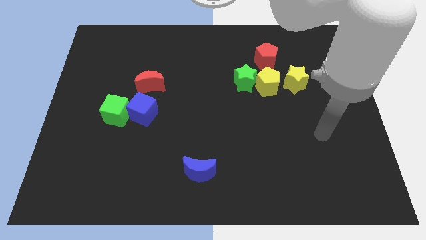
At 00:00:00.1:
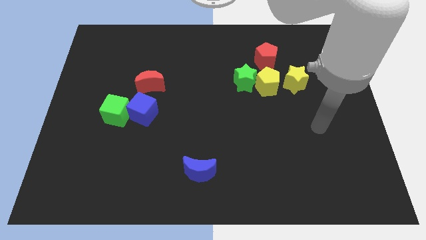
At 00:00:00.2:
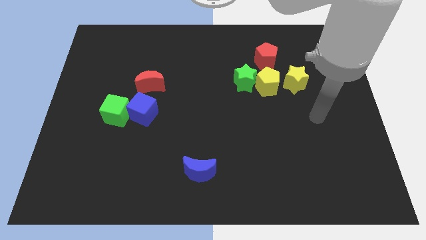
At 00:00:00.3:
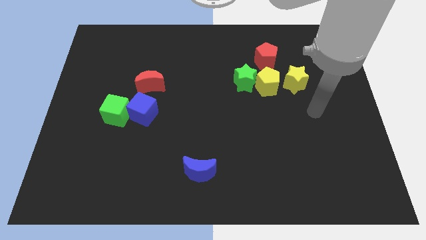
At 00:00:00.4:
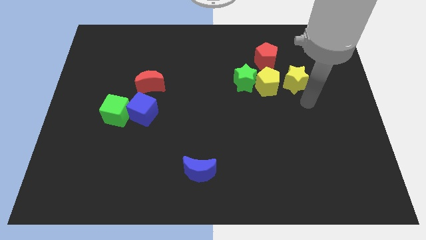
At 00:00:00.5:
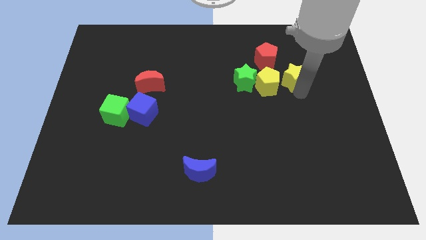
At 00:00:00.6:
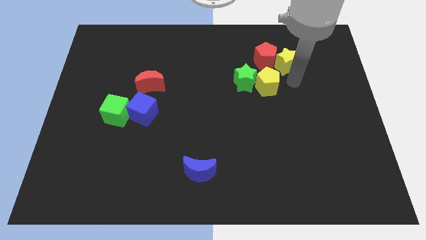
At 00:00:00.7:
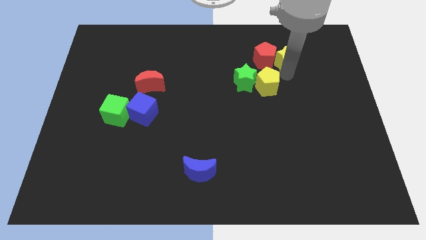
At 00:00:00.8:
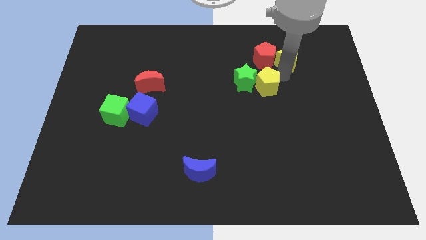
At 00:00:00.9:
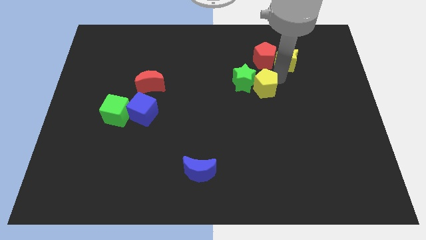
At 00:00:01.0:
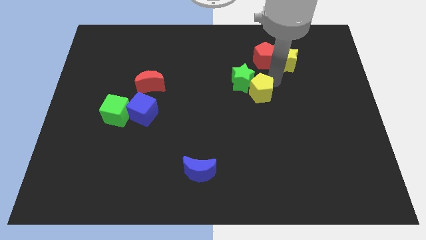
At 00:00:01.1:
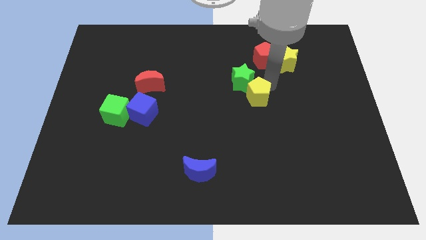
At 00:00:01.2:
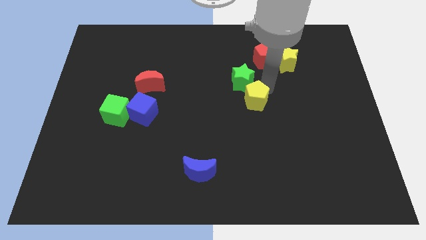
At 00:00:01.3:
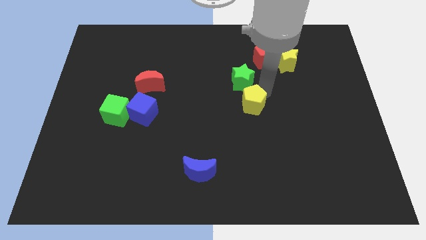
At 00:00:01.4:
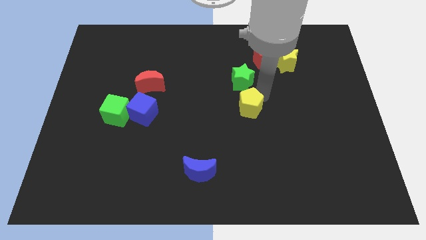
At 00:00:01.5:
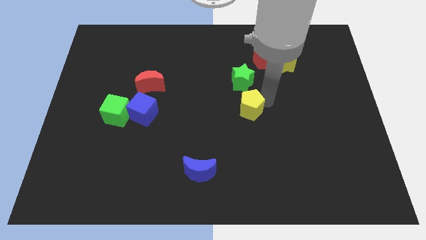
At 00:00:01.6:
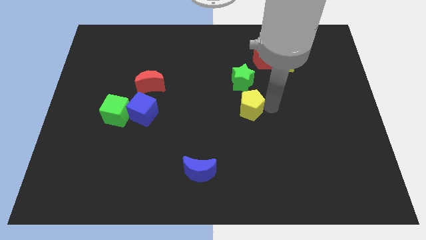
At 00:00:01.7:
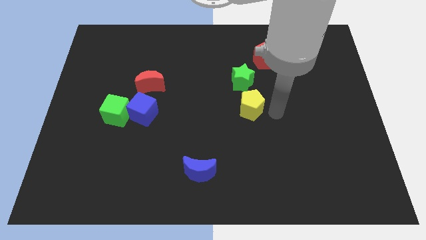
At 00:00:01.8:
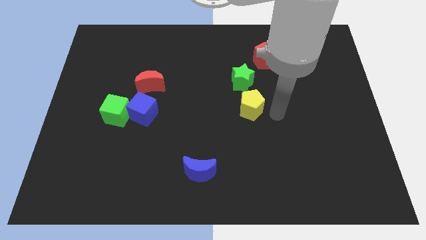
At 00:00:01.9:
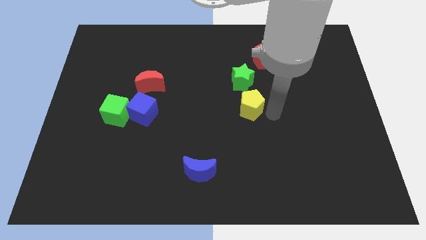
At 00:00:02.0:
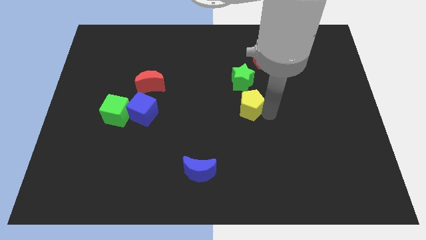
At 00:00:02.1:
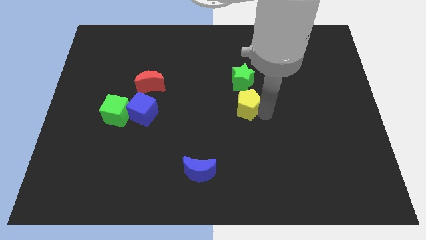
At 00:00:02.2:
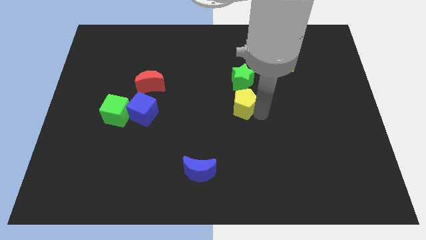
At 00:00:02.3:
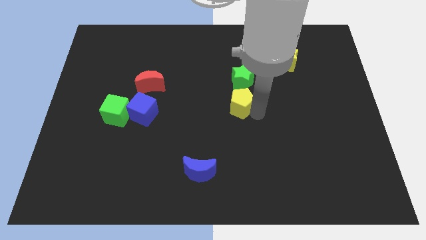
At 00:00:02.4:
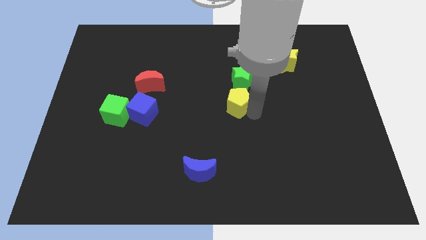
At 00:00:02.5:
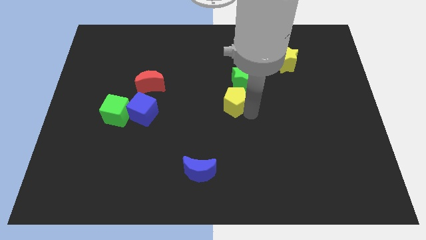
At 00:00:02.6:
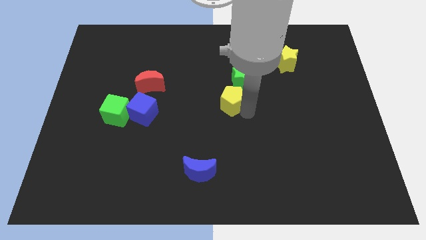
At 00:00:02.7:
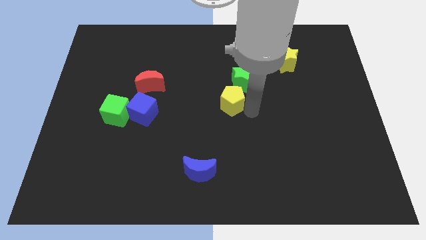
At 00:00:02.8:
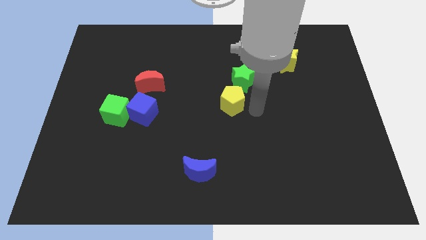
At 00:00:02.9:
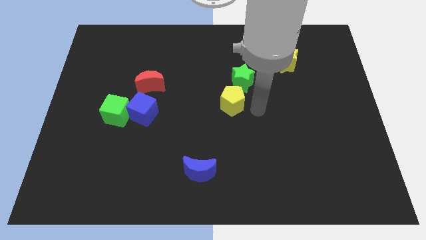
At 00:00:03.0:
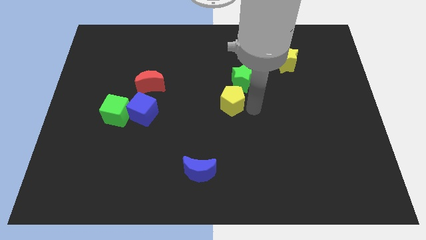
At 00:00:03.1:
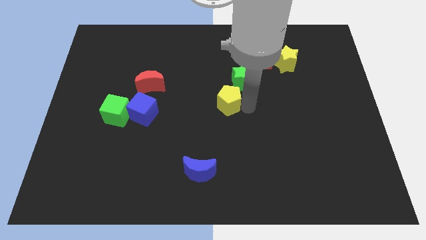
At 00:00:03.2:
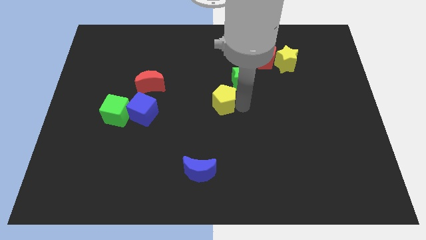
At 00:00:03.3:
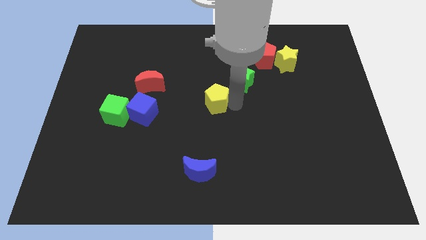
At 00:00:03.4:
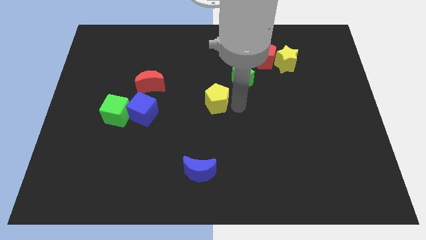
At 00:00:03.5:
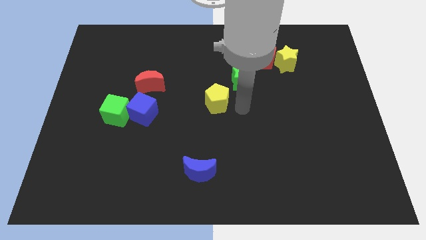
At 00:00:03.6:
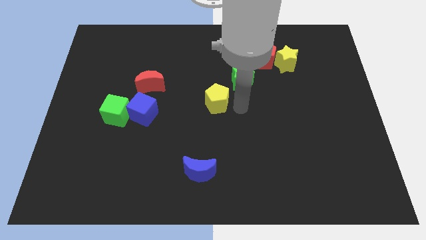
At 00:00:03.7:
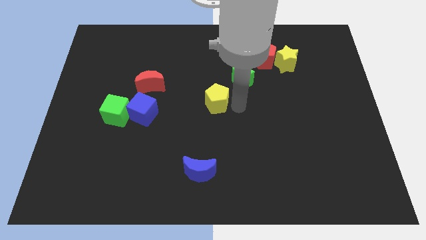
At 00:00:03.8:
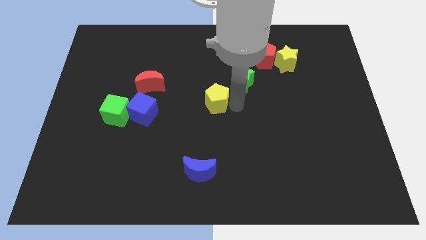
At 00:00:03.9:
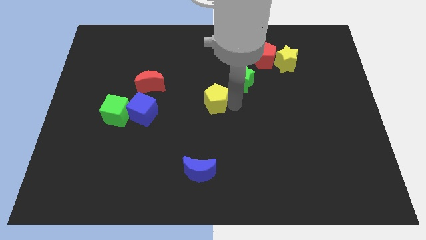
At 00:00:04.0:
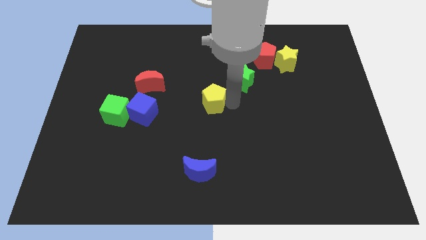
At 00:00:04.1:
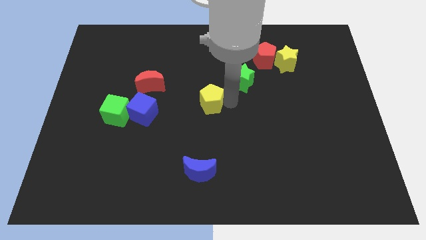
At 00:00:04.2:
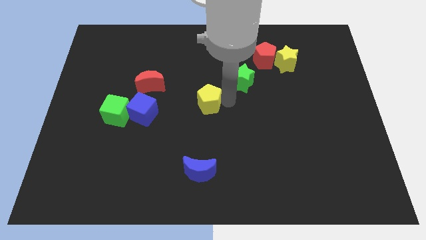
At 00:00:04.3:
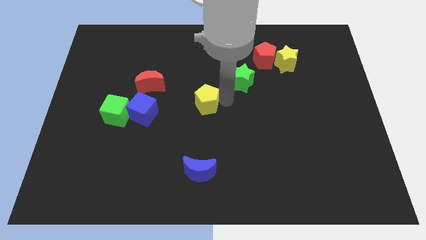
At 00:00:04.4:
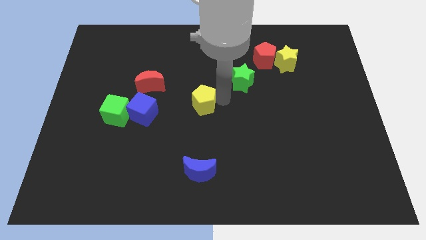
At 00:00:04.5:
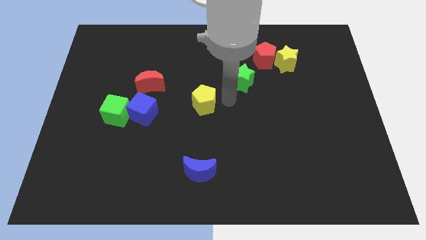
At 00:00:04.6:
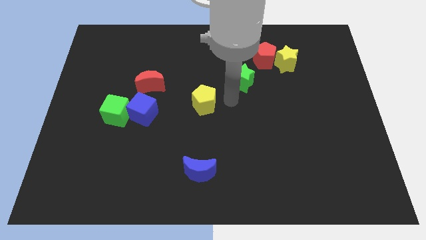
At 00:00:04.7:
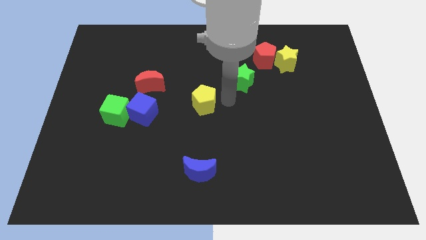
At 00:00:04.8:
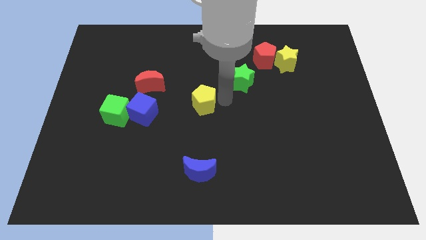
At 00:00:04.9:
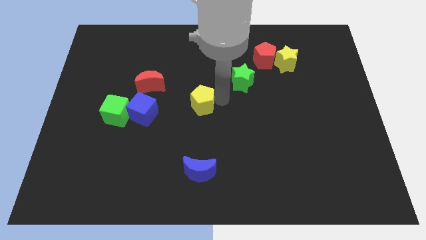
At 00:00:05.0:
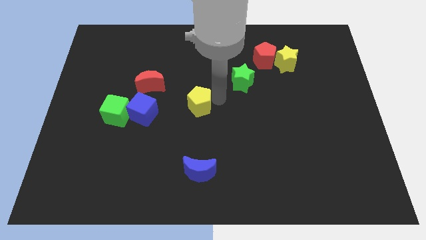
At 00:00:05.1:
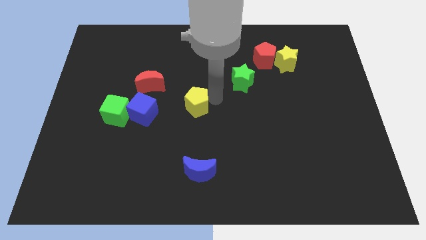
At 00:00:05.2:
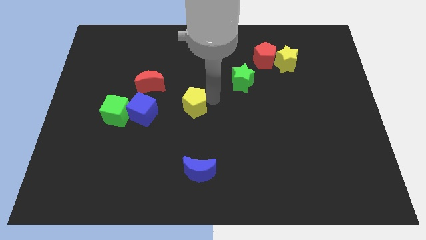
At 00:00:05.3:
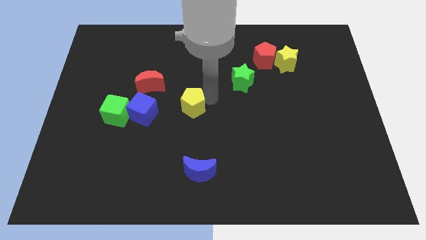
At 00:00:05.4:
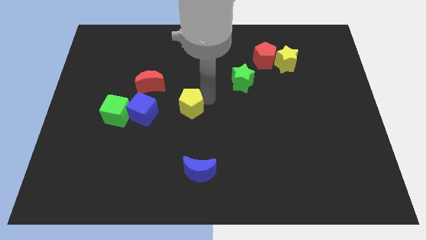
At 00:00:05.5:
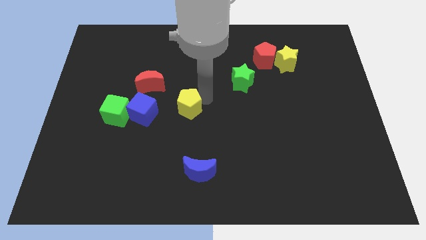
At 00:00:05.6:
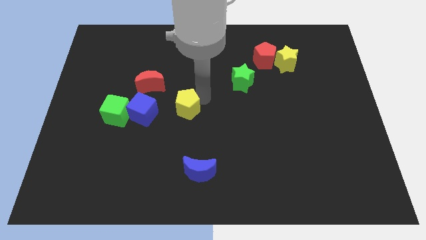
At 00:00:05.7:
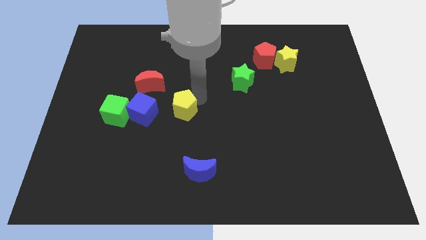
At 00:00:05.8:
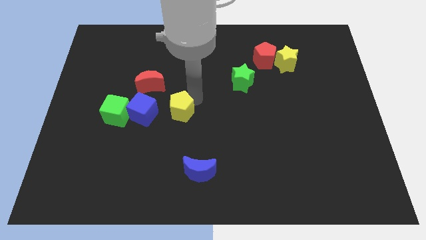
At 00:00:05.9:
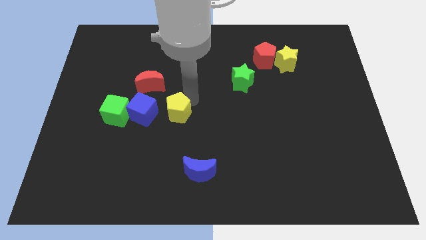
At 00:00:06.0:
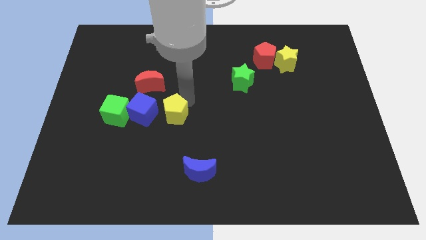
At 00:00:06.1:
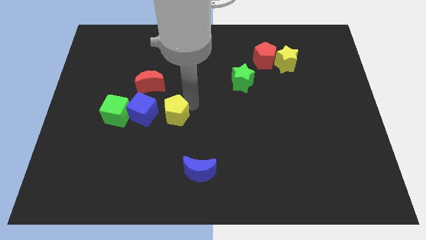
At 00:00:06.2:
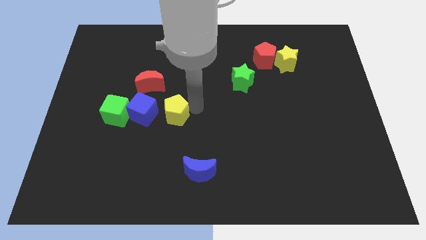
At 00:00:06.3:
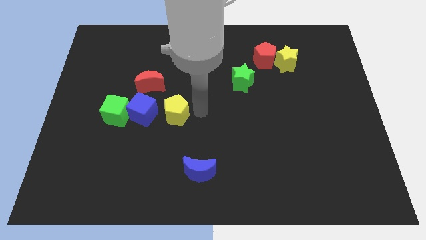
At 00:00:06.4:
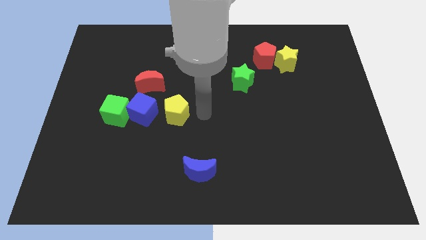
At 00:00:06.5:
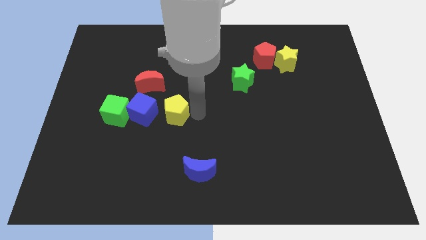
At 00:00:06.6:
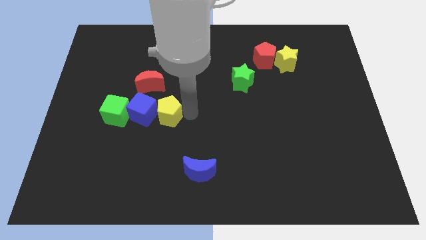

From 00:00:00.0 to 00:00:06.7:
push the yellow pentagon close to the blue cube

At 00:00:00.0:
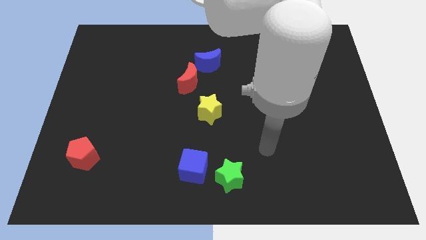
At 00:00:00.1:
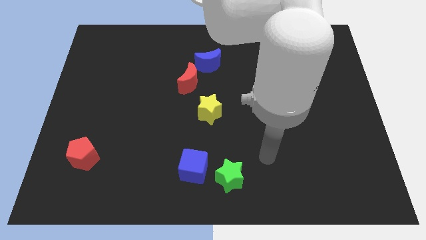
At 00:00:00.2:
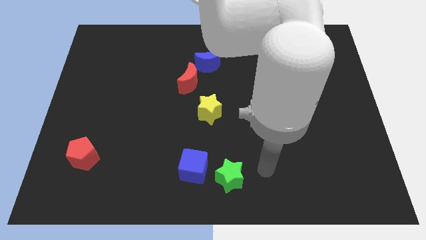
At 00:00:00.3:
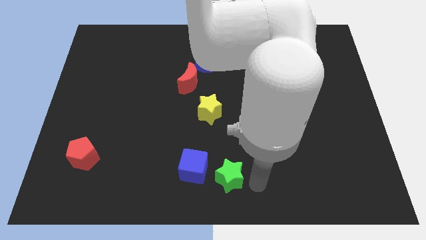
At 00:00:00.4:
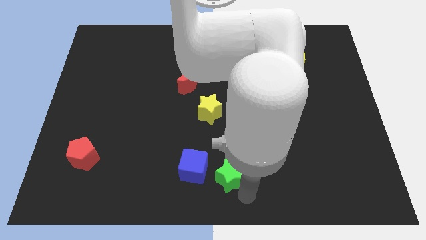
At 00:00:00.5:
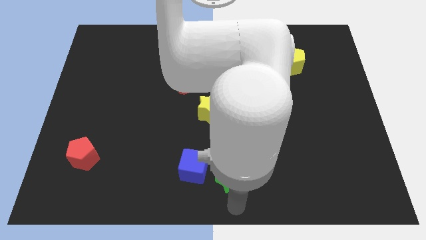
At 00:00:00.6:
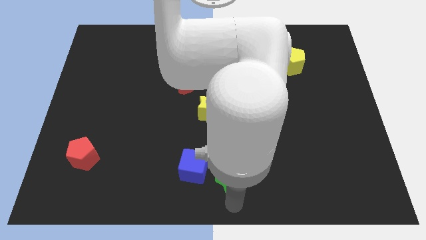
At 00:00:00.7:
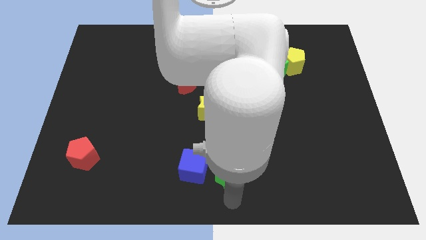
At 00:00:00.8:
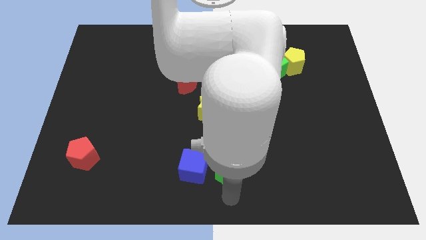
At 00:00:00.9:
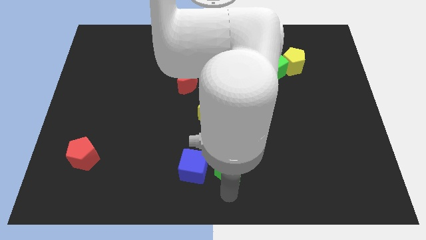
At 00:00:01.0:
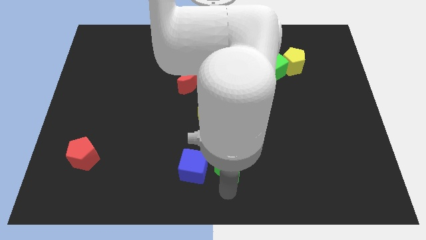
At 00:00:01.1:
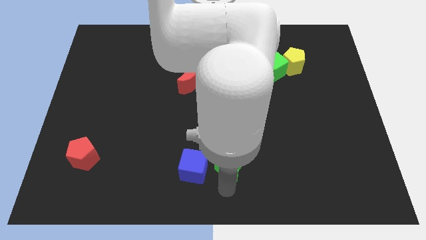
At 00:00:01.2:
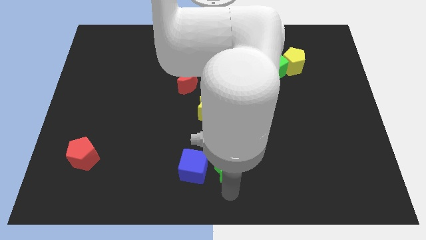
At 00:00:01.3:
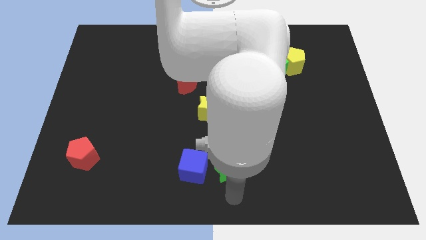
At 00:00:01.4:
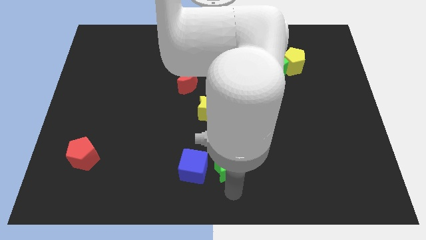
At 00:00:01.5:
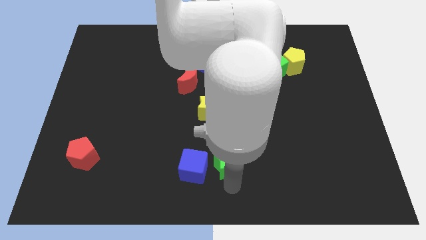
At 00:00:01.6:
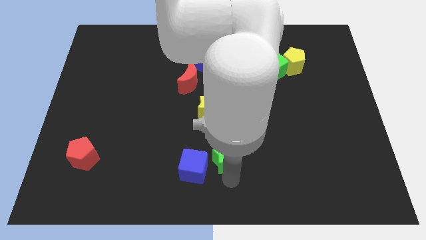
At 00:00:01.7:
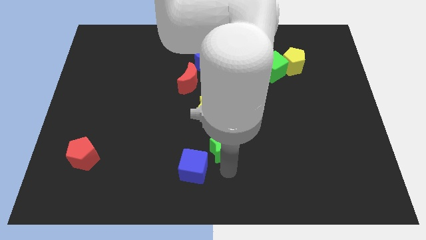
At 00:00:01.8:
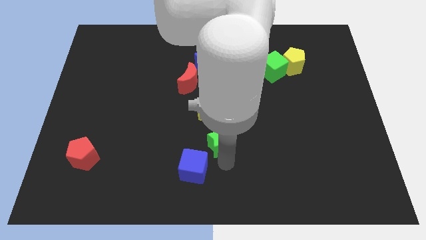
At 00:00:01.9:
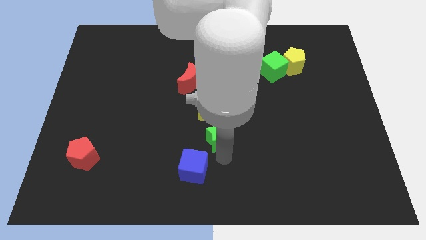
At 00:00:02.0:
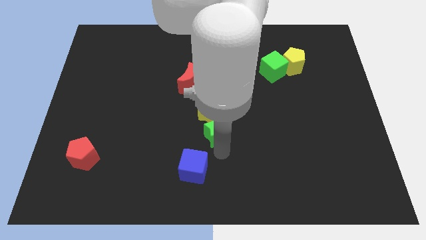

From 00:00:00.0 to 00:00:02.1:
move the green star towards the yellow star
